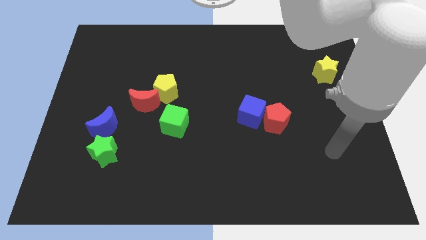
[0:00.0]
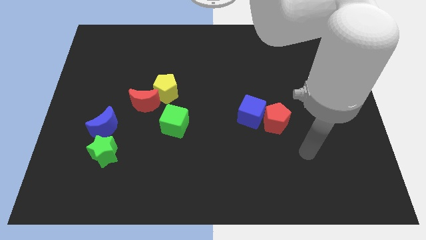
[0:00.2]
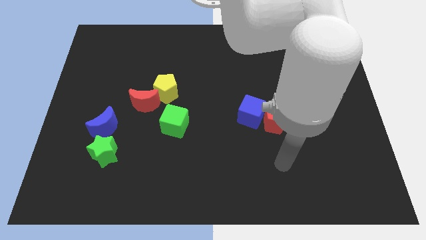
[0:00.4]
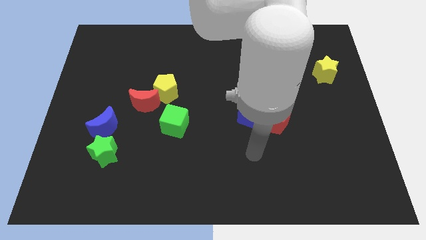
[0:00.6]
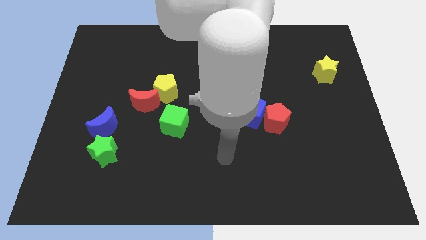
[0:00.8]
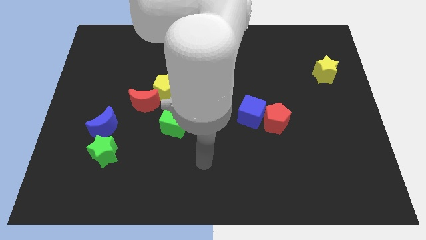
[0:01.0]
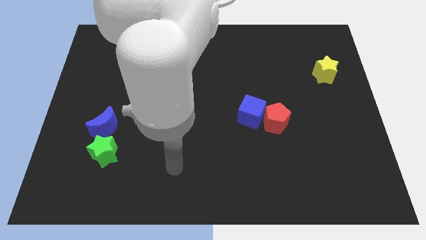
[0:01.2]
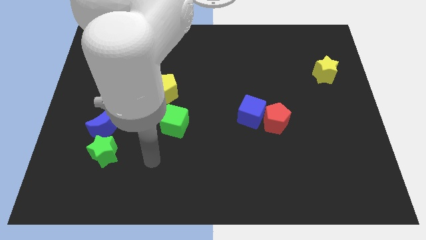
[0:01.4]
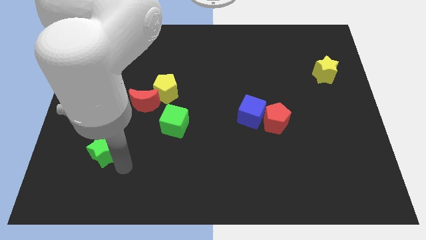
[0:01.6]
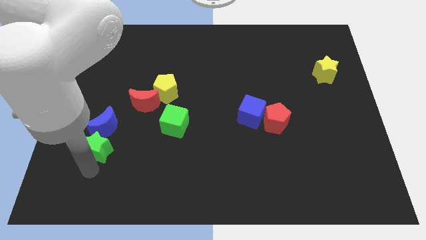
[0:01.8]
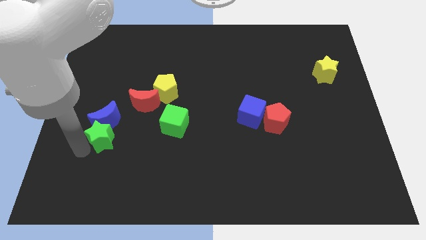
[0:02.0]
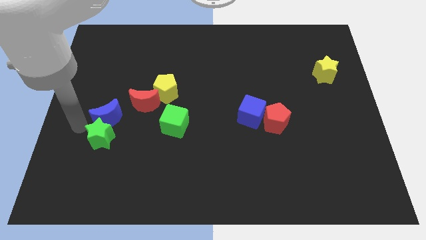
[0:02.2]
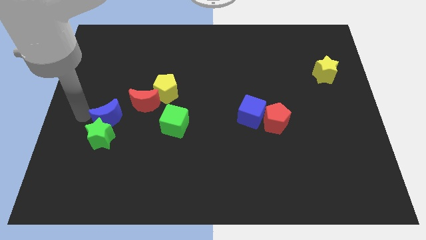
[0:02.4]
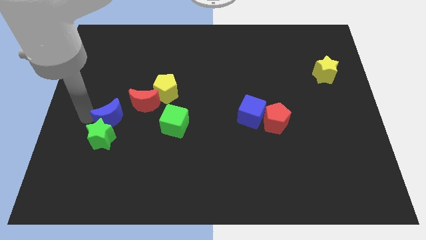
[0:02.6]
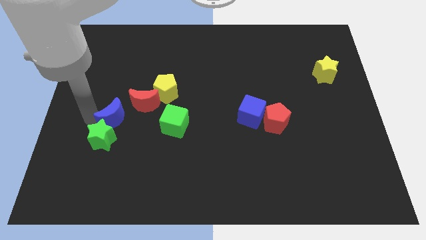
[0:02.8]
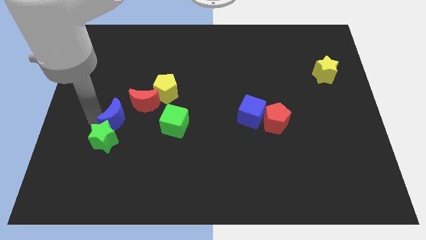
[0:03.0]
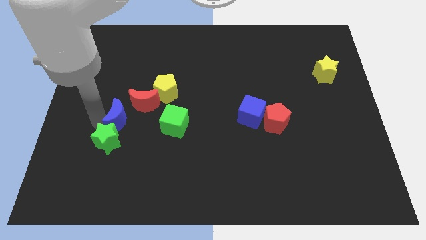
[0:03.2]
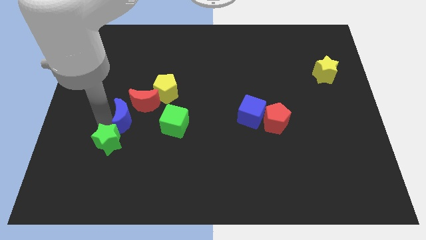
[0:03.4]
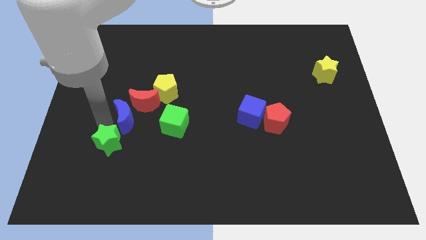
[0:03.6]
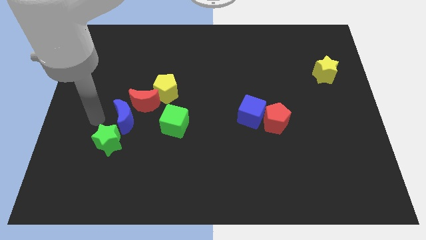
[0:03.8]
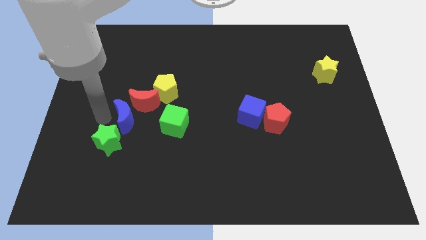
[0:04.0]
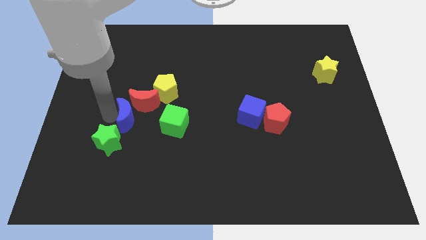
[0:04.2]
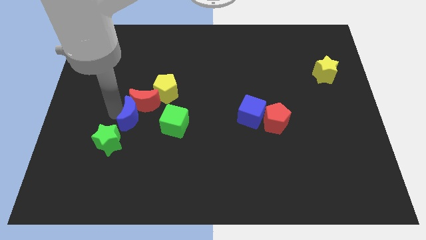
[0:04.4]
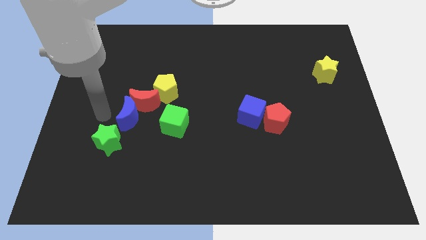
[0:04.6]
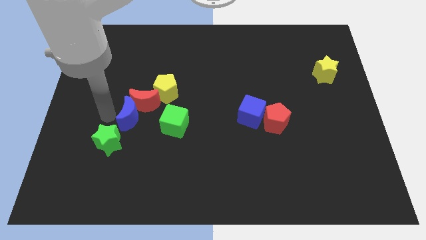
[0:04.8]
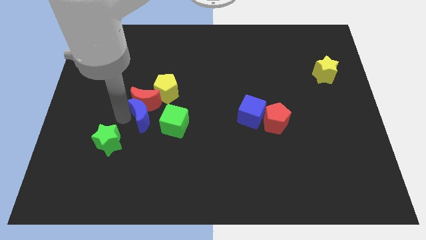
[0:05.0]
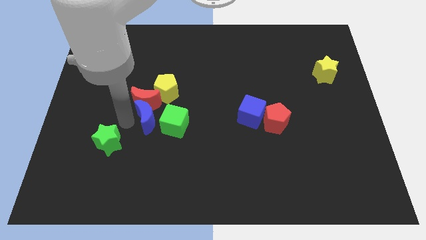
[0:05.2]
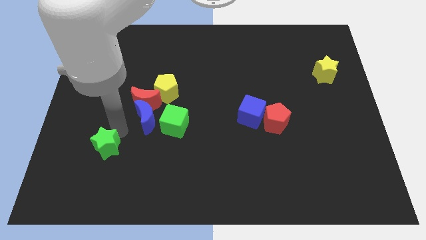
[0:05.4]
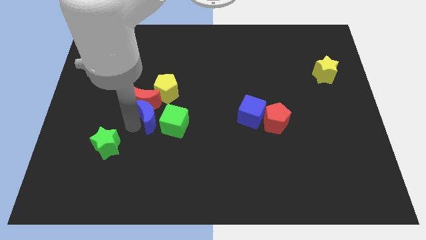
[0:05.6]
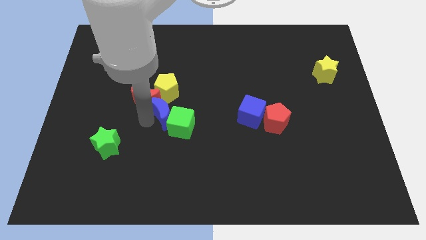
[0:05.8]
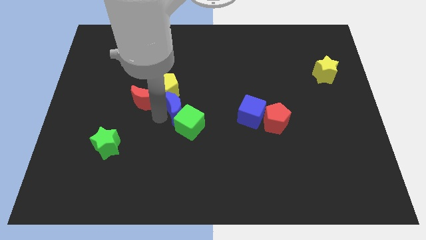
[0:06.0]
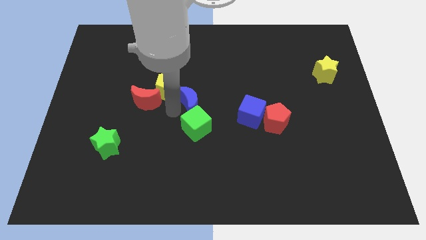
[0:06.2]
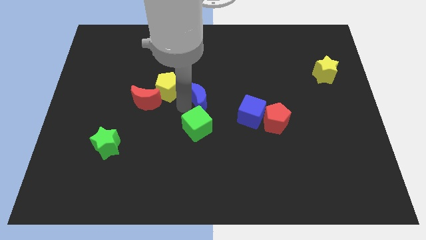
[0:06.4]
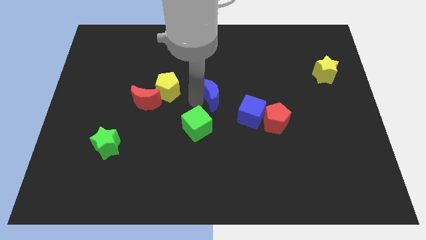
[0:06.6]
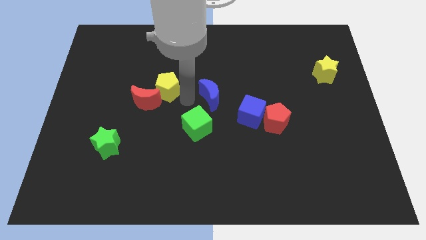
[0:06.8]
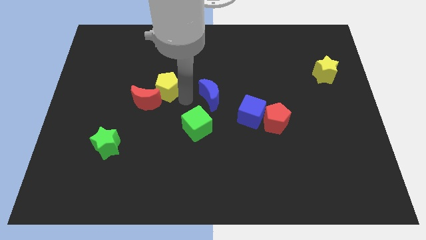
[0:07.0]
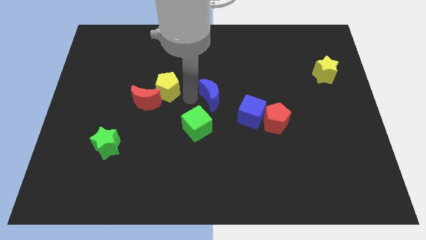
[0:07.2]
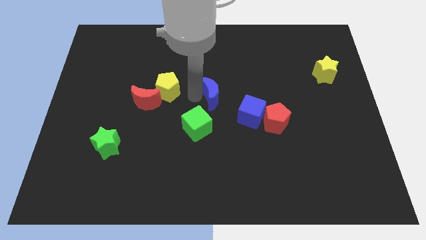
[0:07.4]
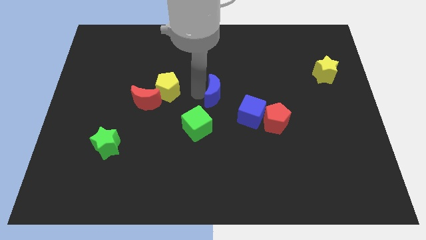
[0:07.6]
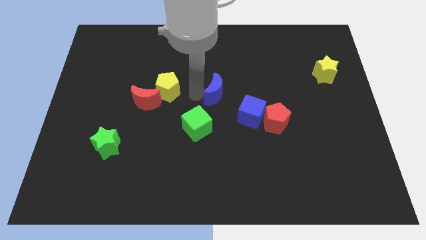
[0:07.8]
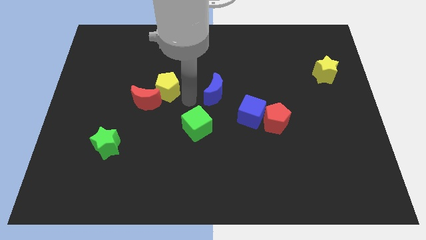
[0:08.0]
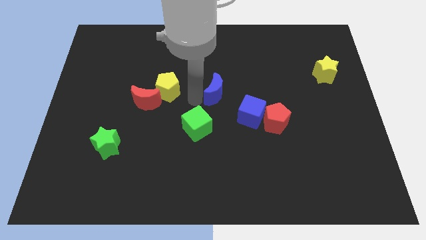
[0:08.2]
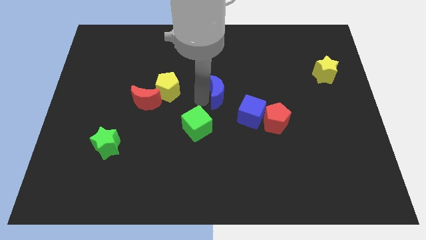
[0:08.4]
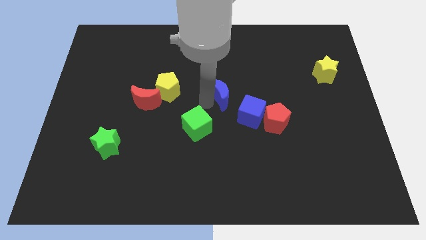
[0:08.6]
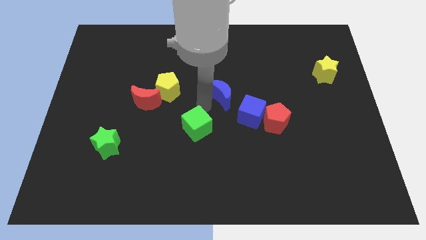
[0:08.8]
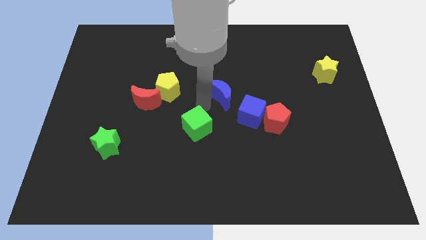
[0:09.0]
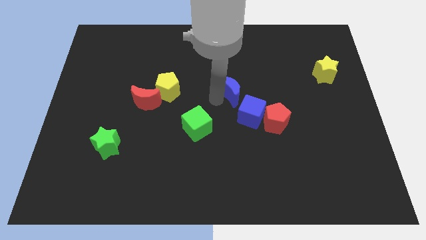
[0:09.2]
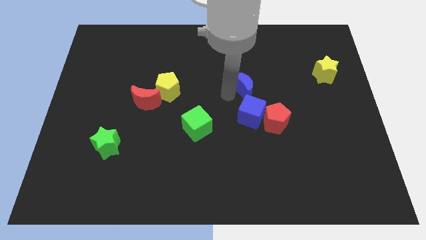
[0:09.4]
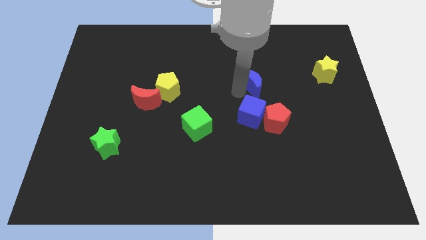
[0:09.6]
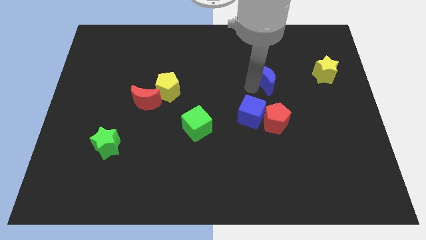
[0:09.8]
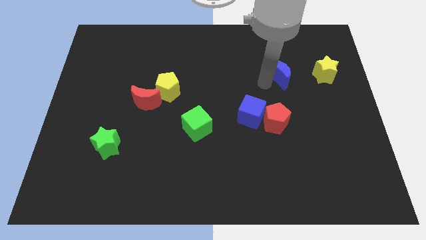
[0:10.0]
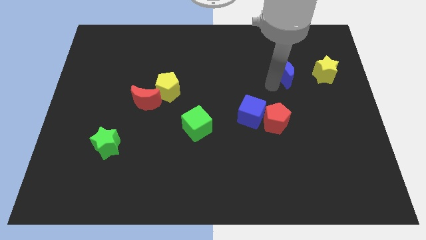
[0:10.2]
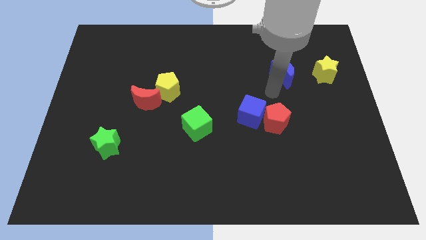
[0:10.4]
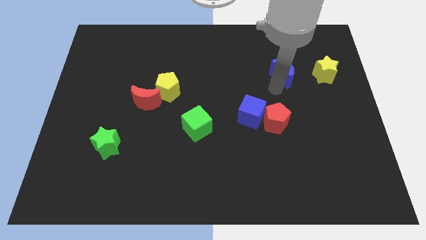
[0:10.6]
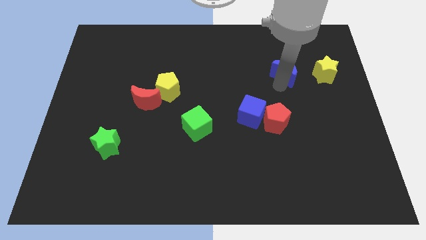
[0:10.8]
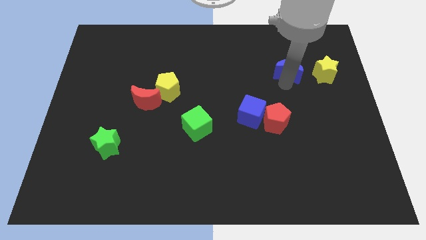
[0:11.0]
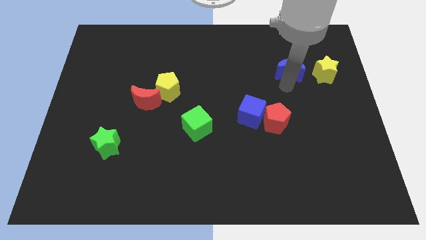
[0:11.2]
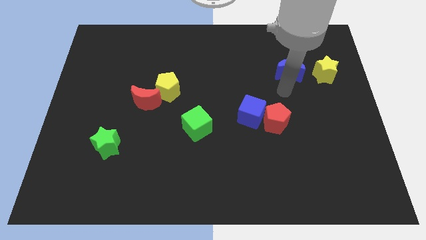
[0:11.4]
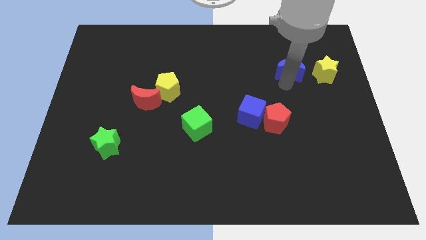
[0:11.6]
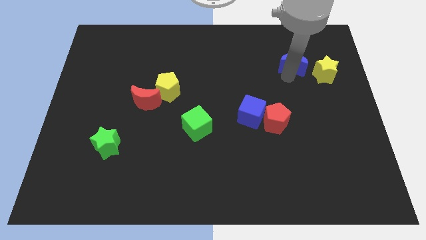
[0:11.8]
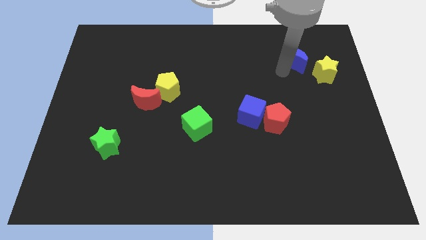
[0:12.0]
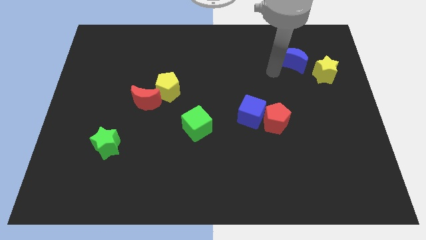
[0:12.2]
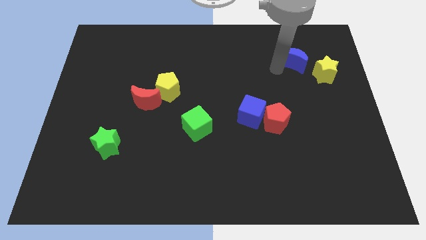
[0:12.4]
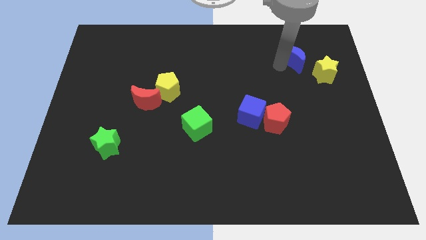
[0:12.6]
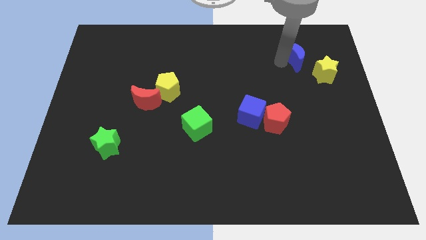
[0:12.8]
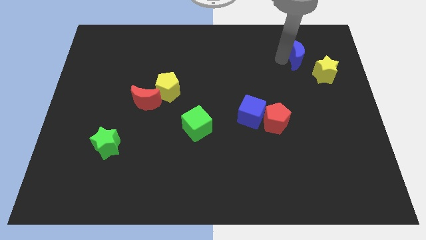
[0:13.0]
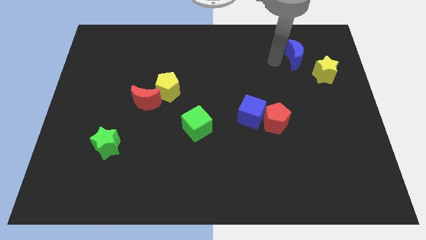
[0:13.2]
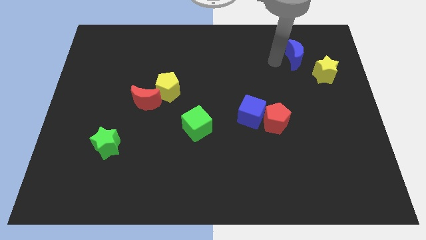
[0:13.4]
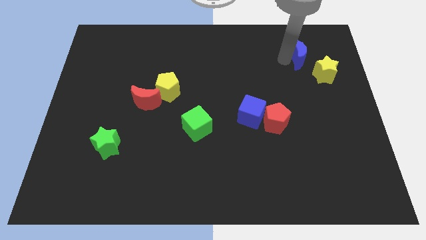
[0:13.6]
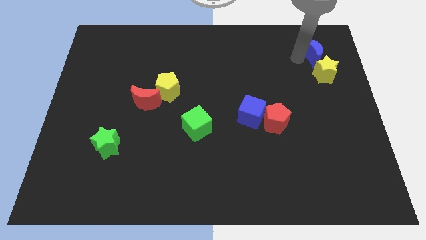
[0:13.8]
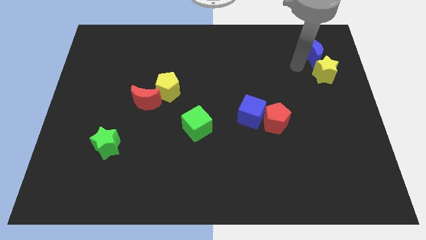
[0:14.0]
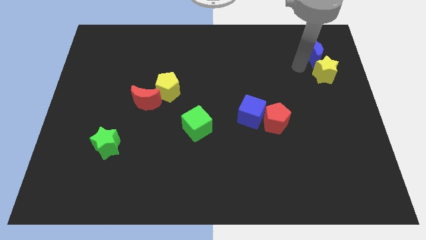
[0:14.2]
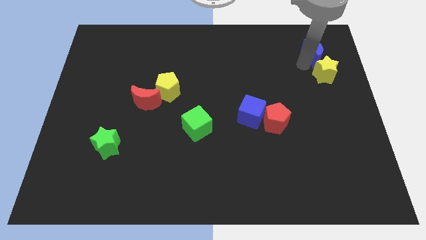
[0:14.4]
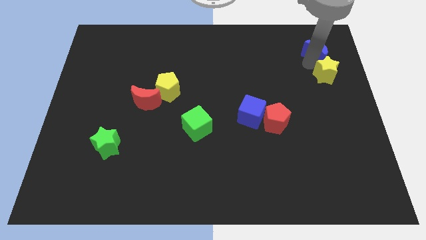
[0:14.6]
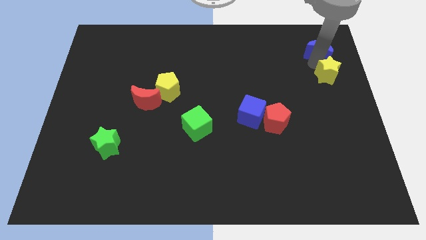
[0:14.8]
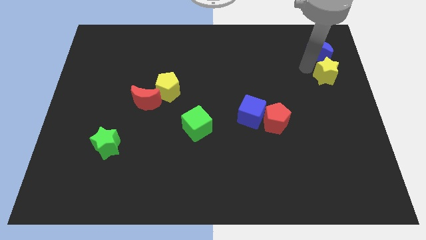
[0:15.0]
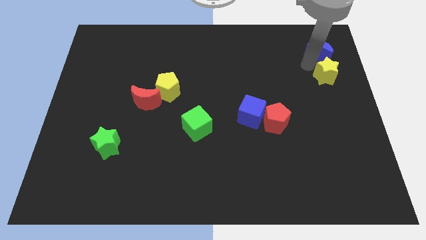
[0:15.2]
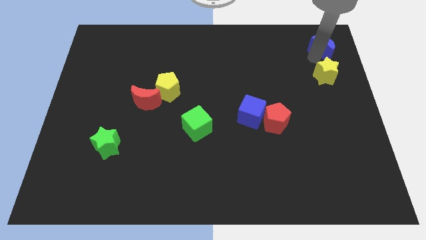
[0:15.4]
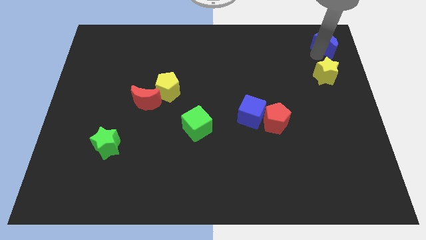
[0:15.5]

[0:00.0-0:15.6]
push the blue moon to the top right of the board
